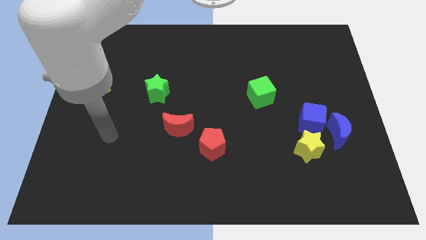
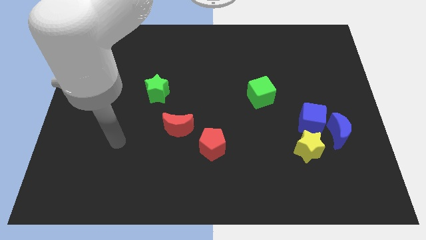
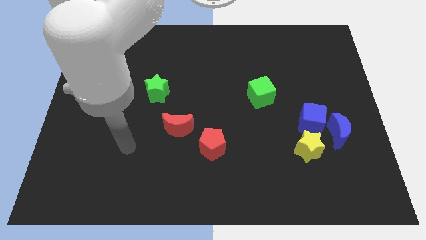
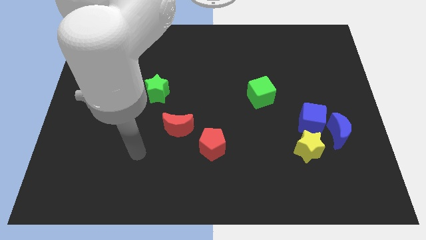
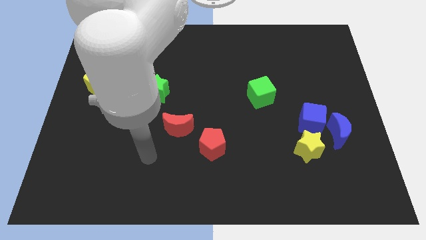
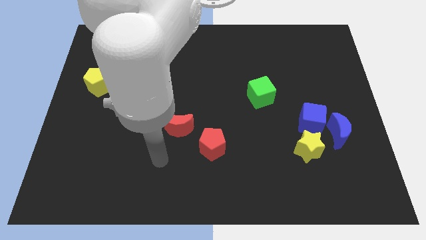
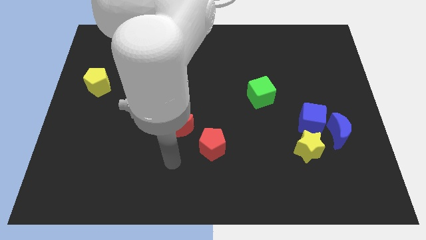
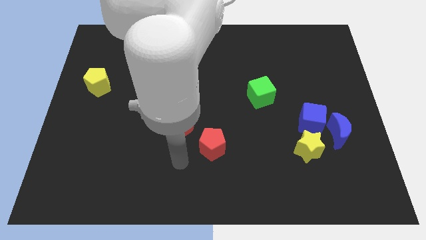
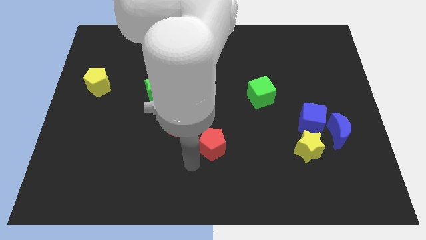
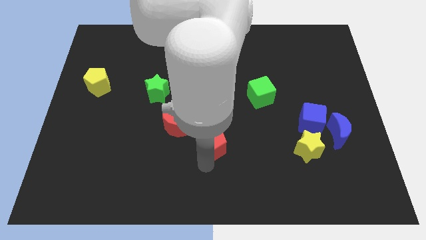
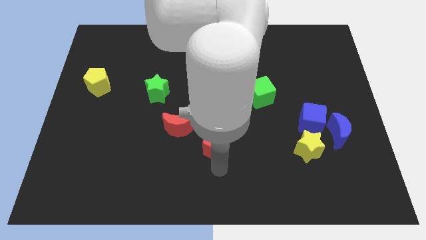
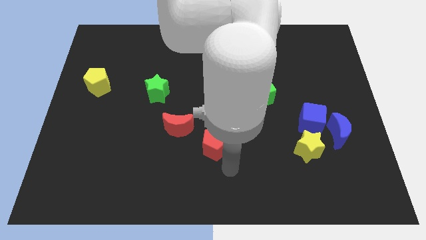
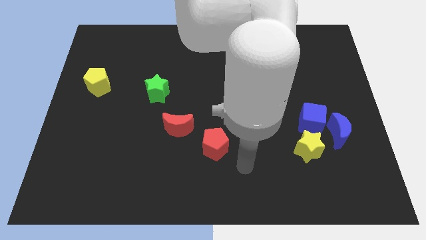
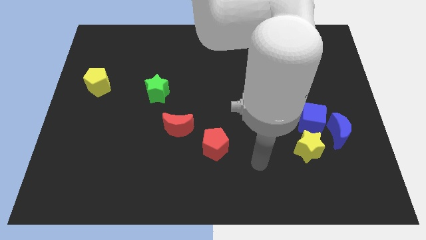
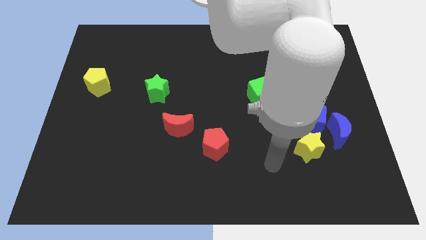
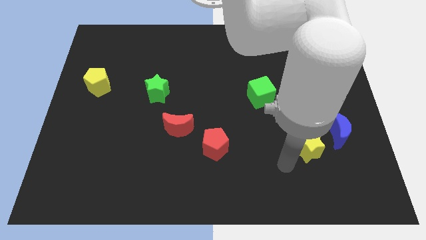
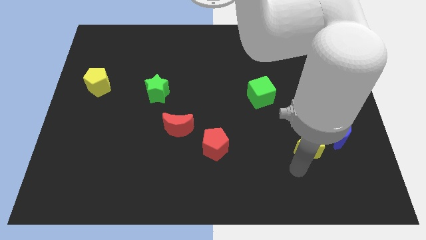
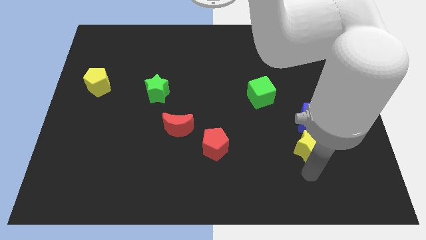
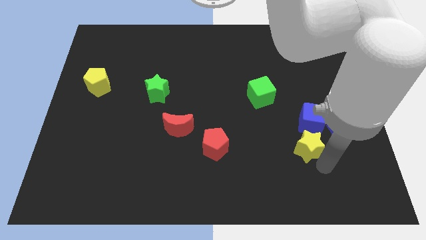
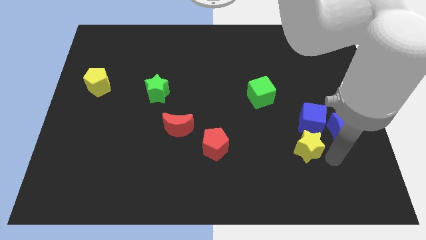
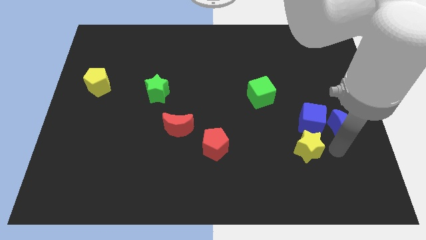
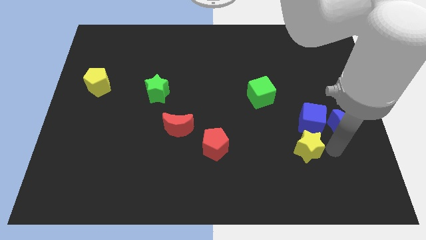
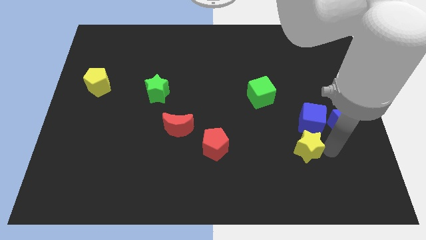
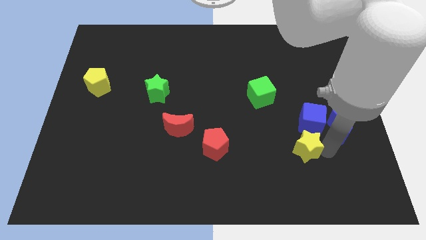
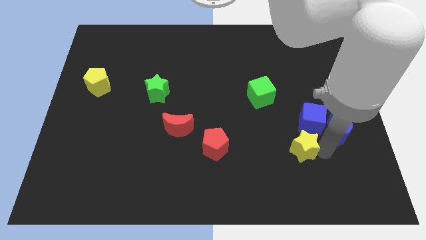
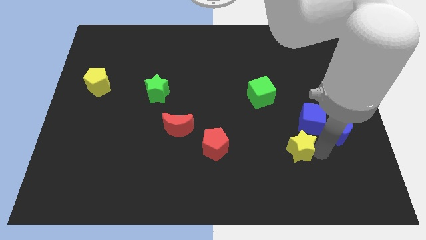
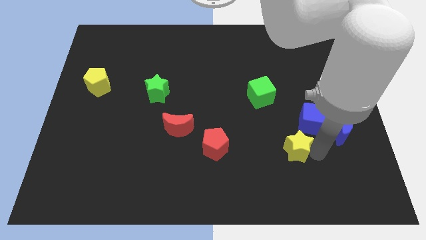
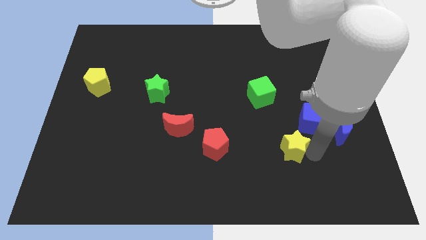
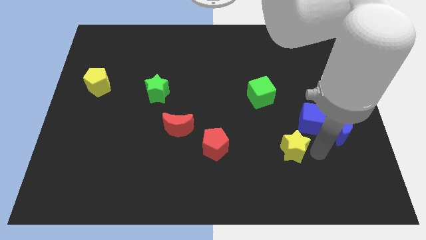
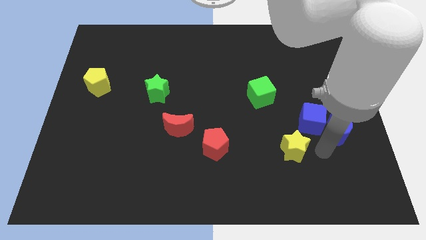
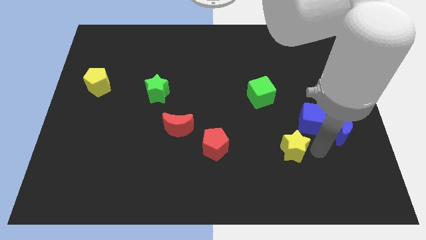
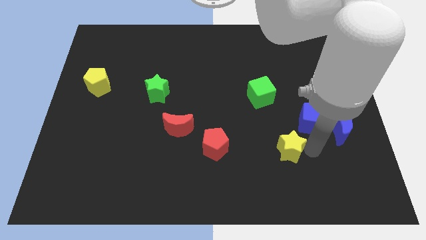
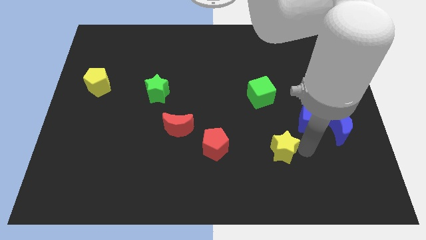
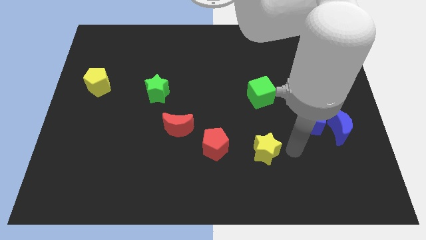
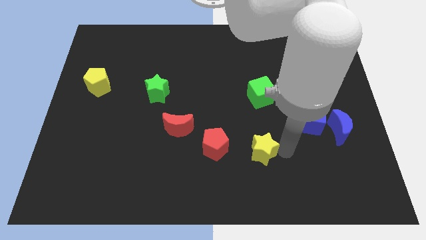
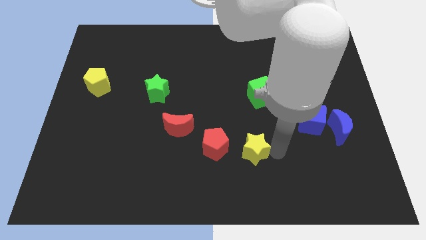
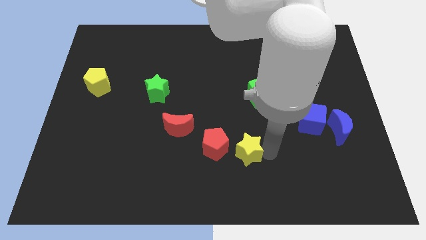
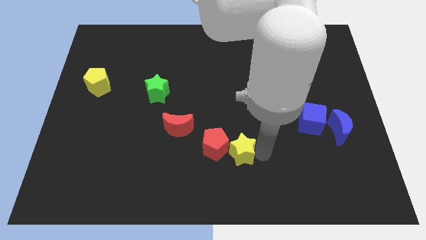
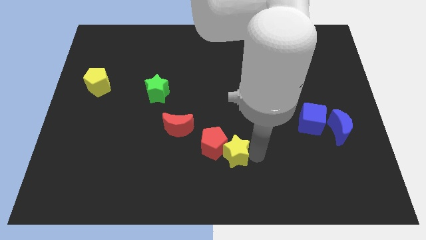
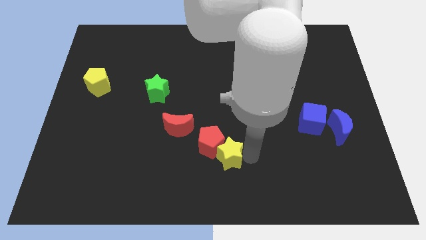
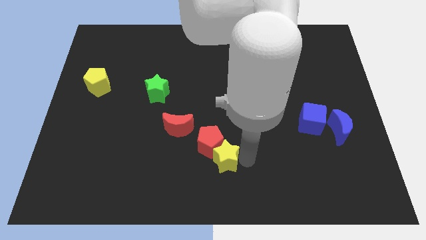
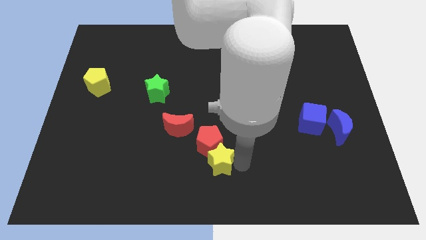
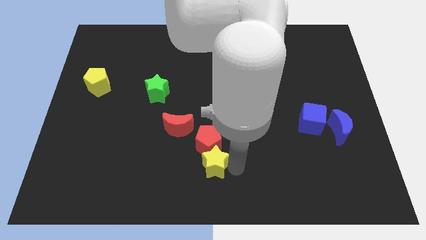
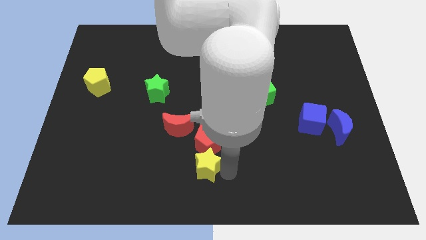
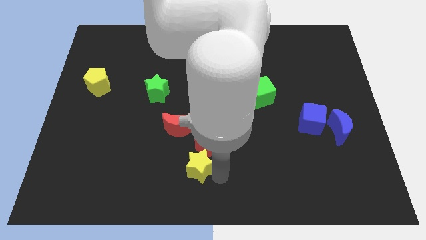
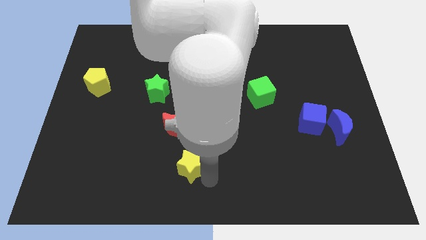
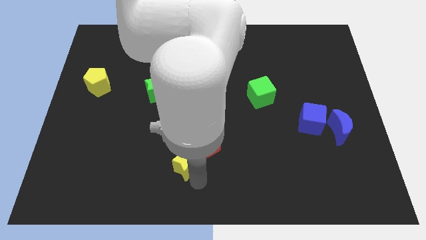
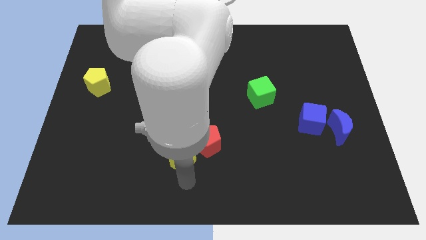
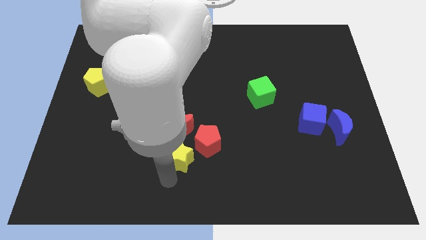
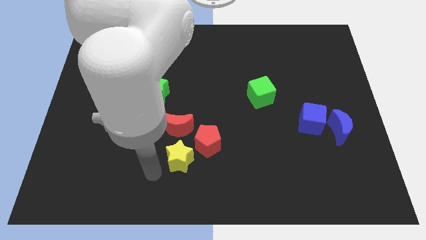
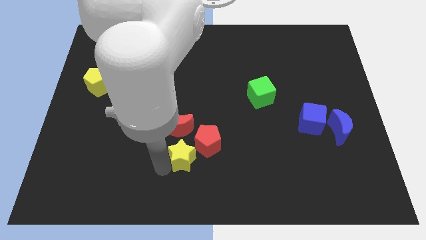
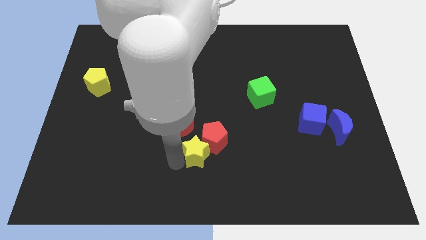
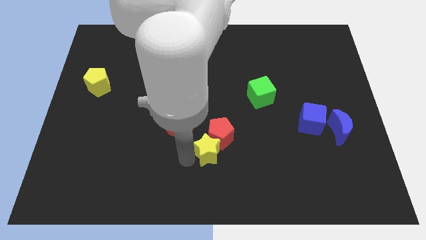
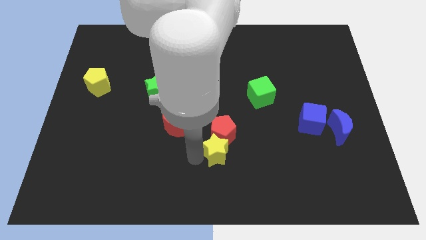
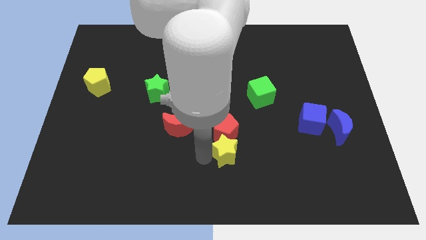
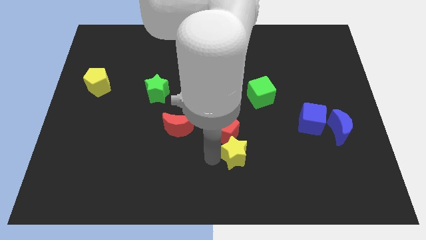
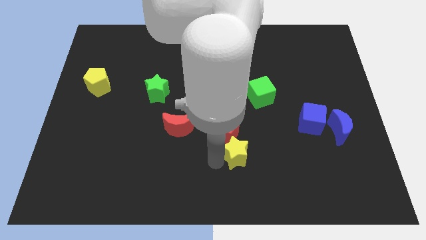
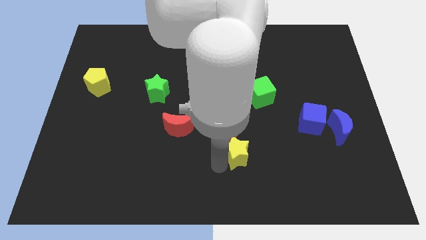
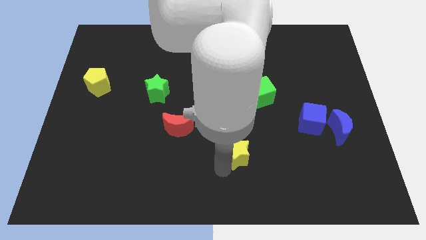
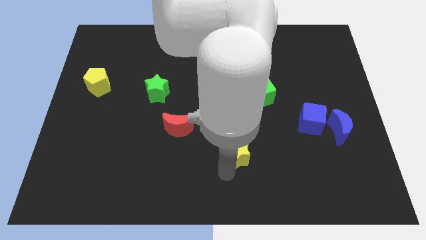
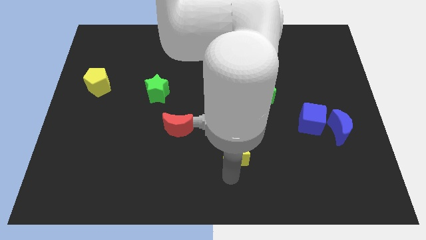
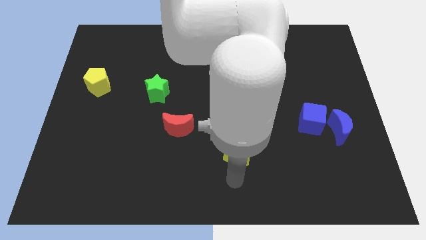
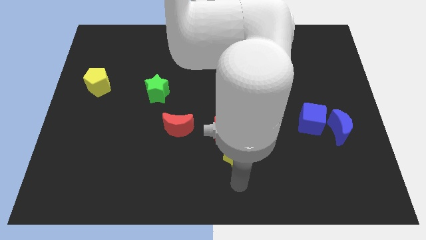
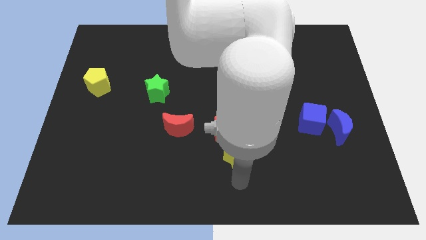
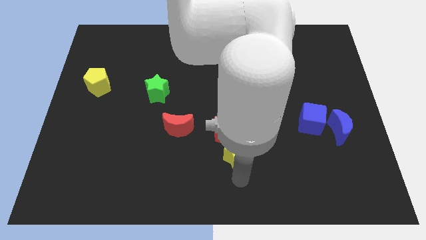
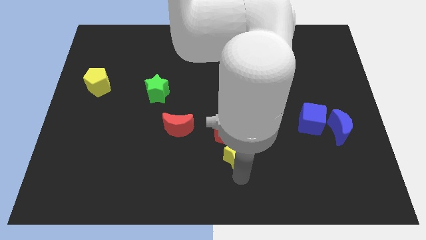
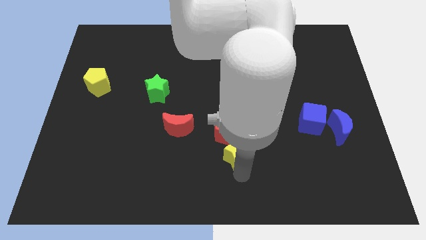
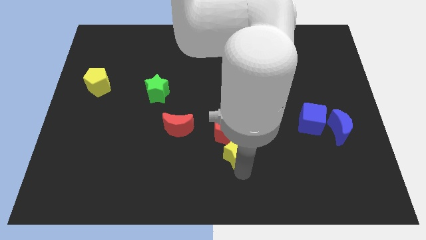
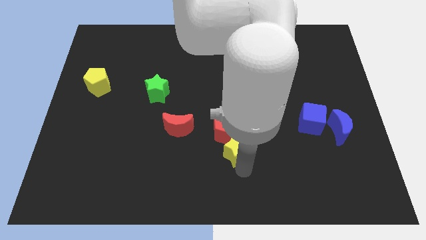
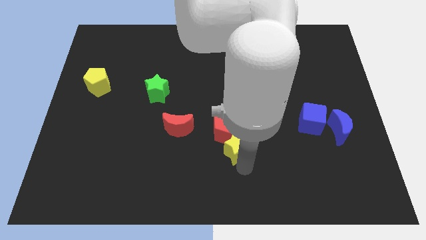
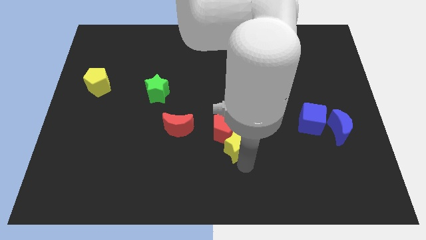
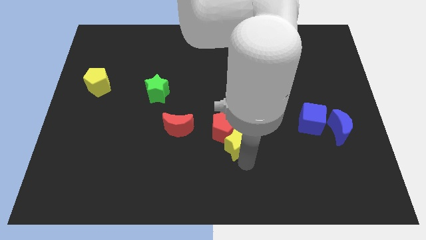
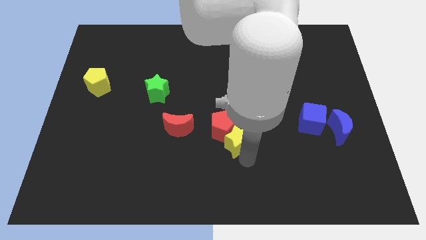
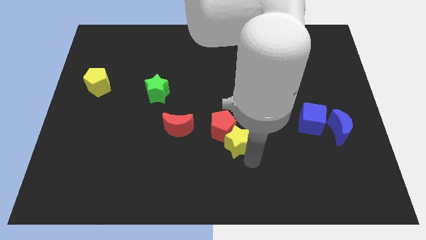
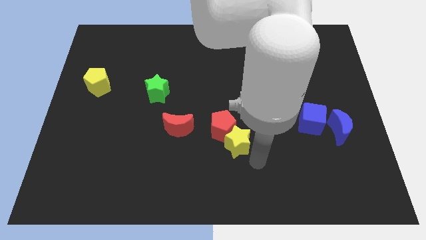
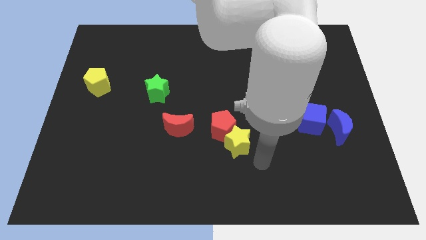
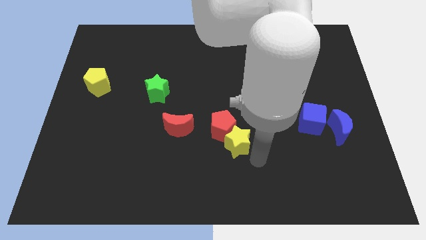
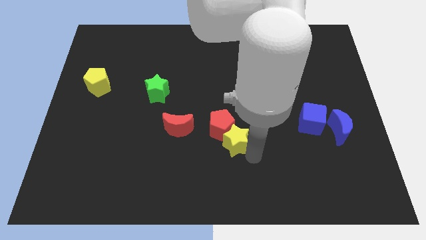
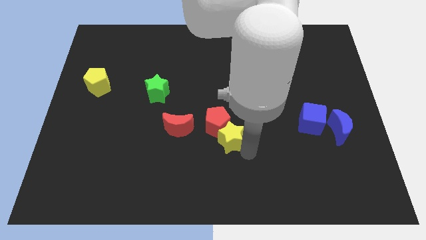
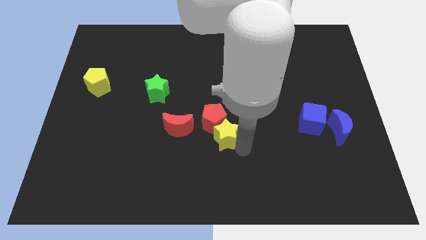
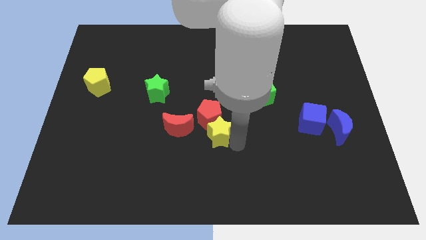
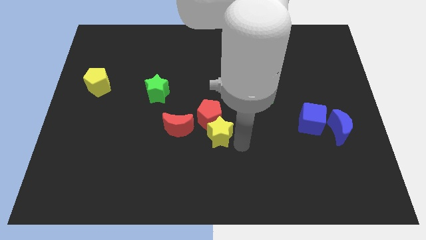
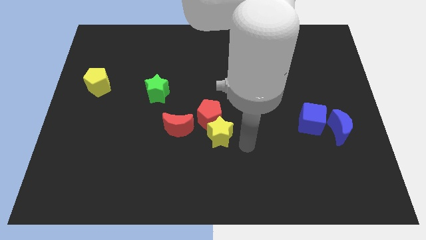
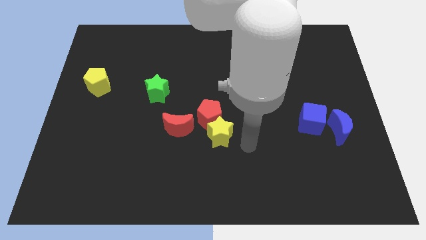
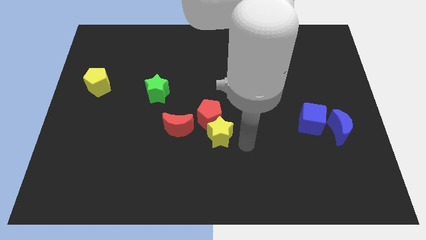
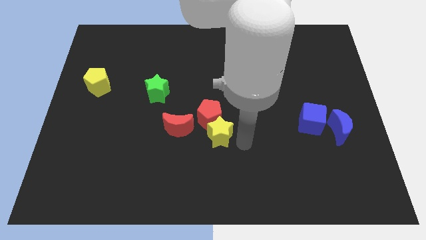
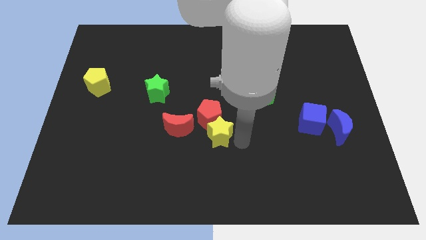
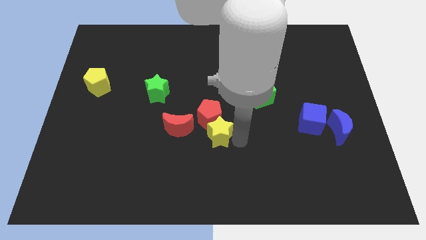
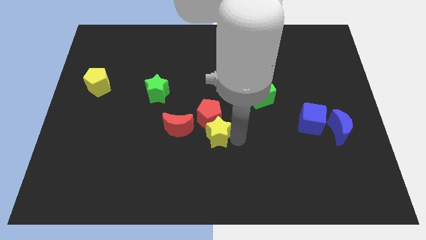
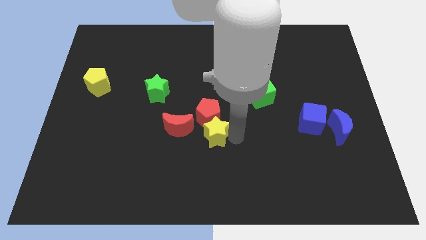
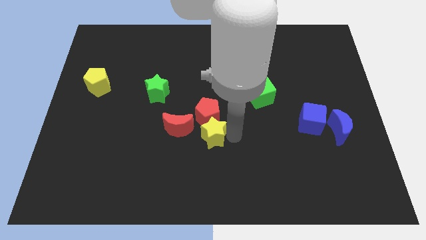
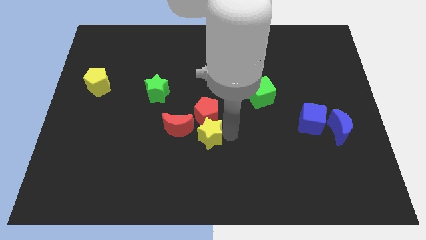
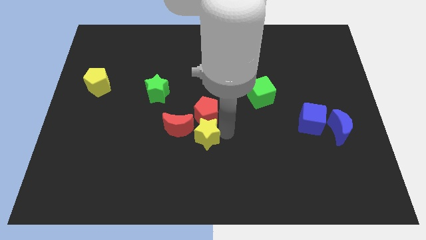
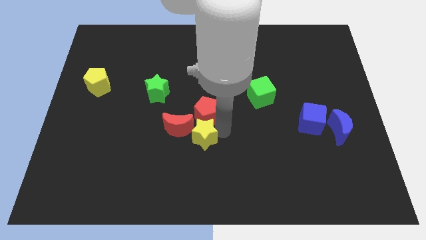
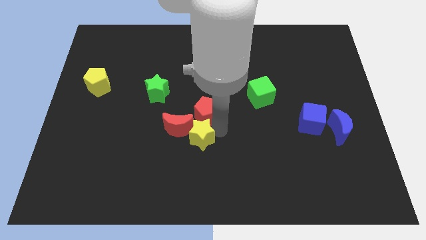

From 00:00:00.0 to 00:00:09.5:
slide the yellow star to the red moon
